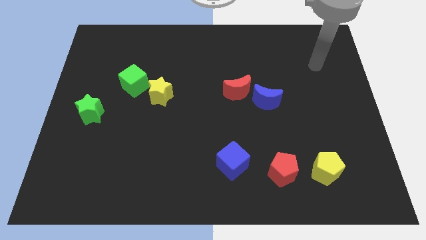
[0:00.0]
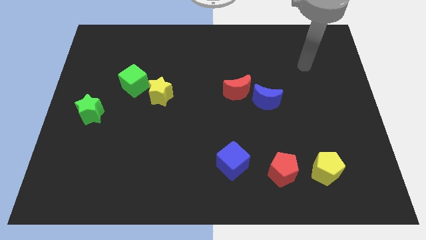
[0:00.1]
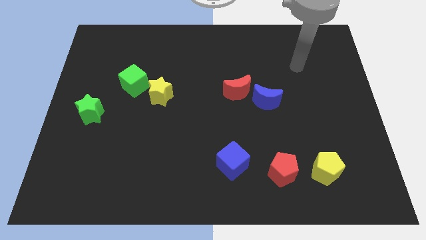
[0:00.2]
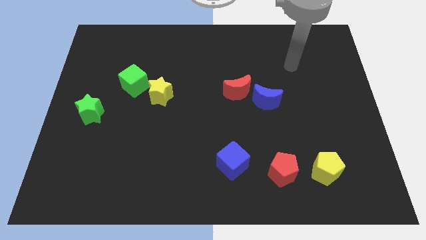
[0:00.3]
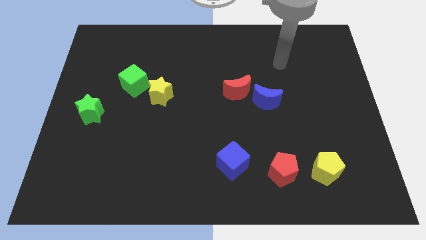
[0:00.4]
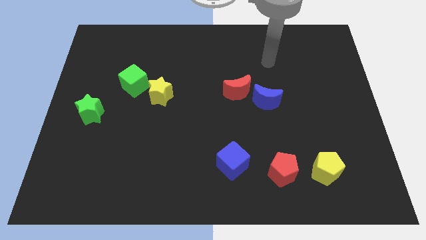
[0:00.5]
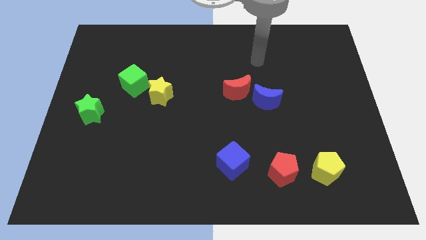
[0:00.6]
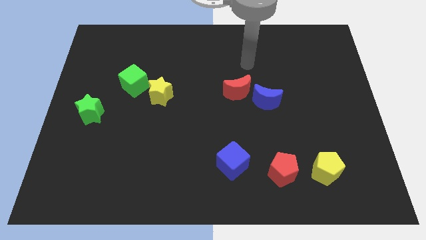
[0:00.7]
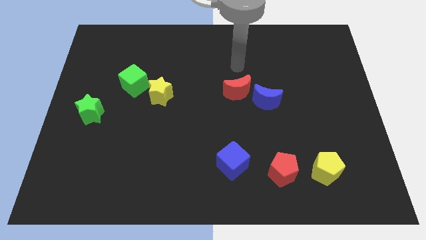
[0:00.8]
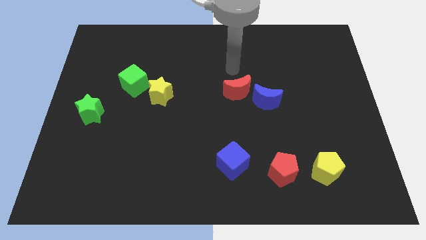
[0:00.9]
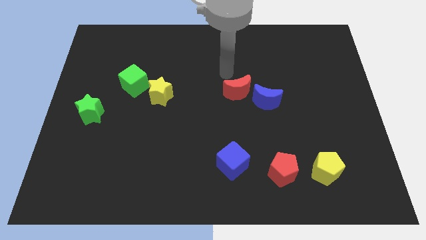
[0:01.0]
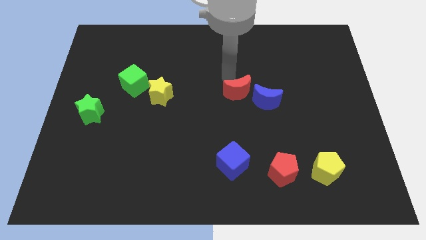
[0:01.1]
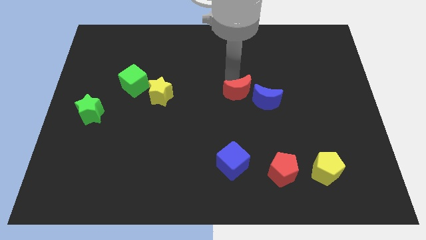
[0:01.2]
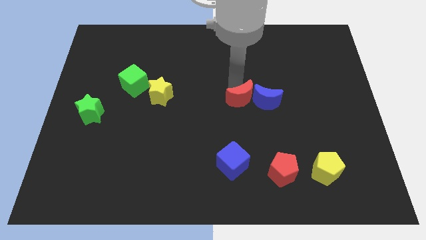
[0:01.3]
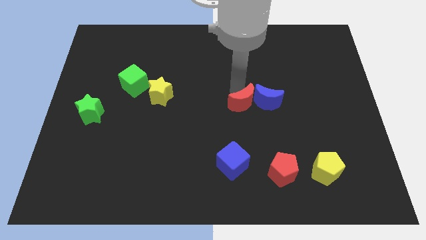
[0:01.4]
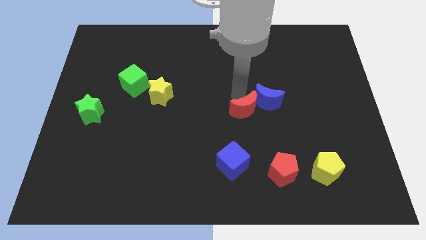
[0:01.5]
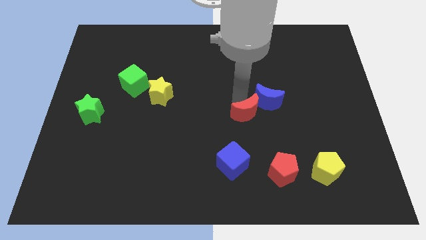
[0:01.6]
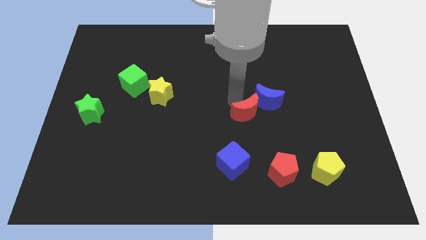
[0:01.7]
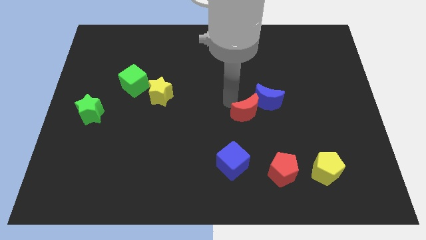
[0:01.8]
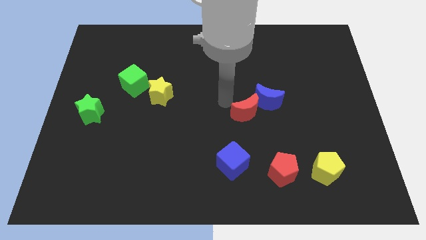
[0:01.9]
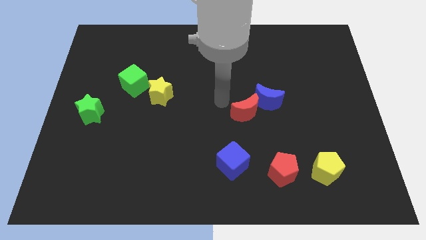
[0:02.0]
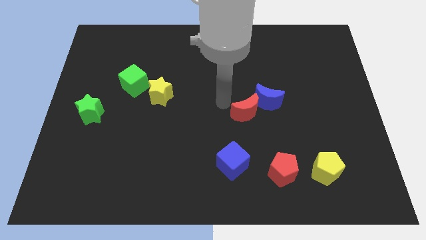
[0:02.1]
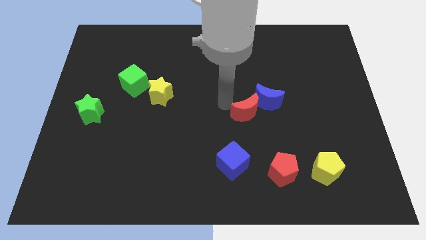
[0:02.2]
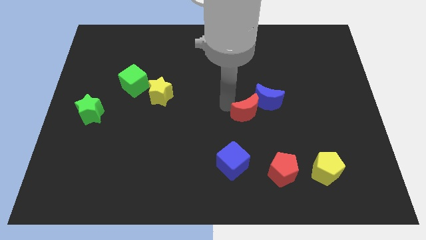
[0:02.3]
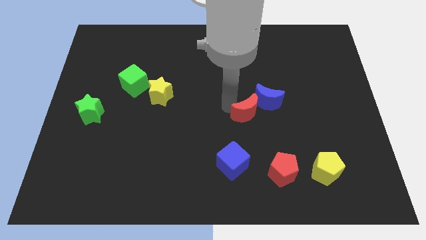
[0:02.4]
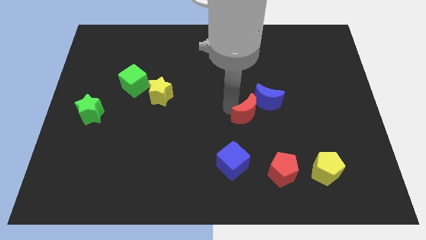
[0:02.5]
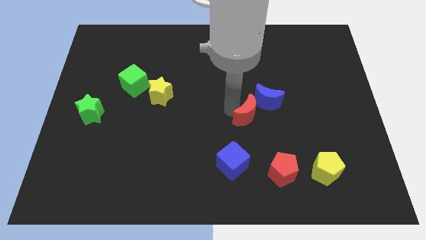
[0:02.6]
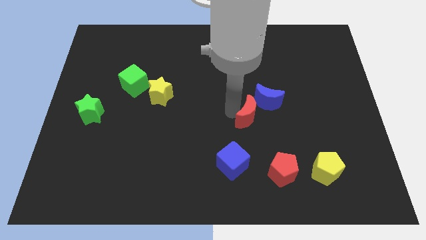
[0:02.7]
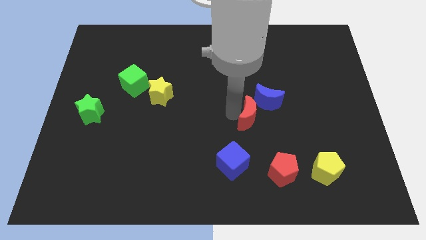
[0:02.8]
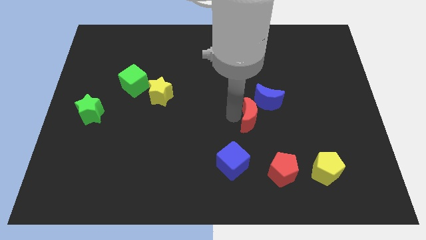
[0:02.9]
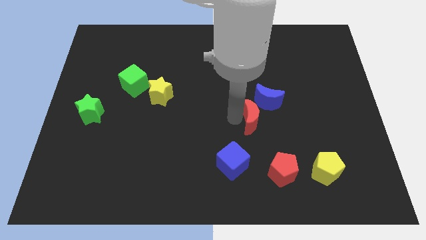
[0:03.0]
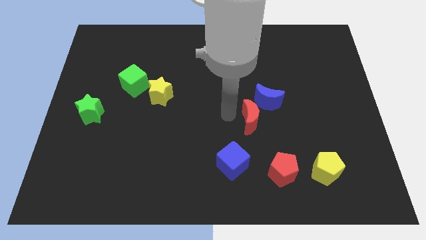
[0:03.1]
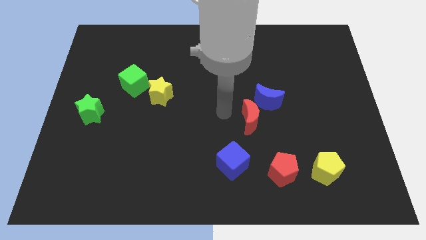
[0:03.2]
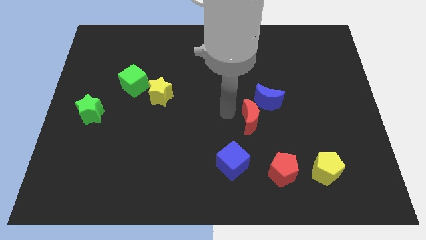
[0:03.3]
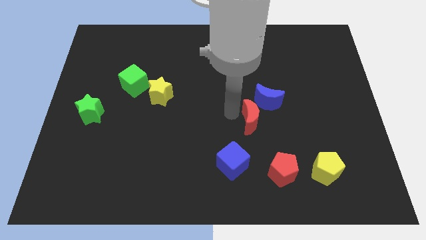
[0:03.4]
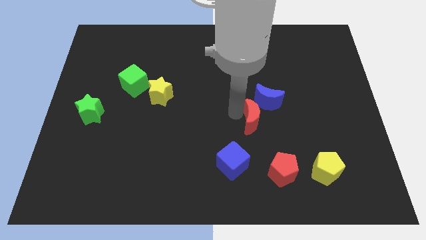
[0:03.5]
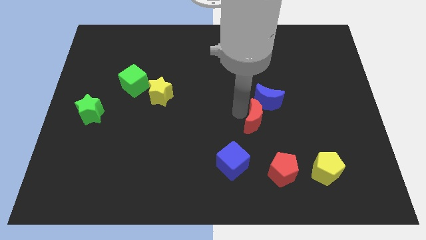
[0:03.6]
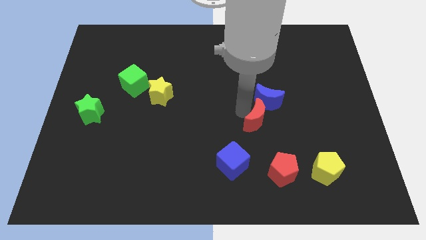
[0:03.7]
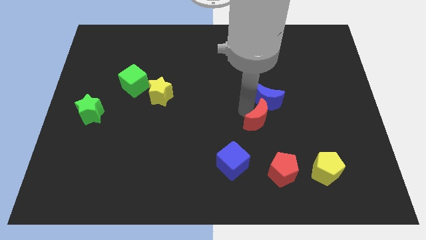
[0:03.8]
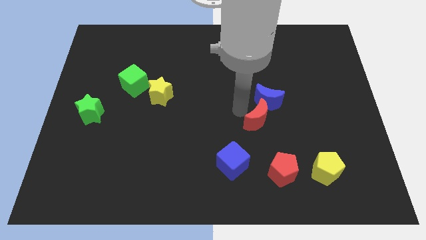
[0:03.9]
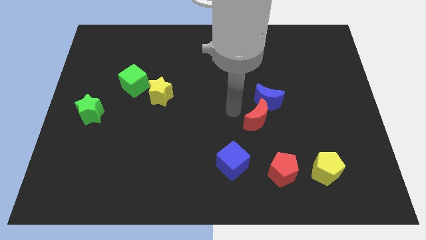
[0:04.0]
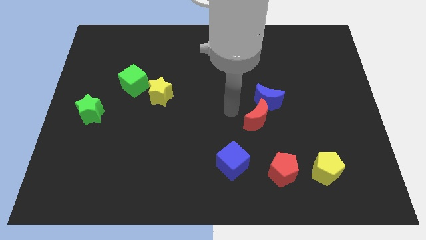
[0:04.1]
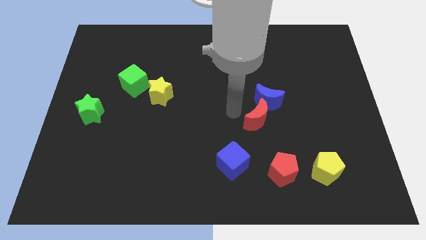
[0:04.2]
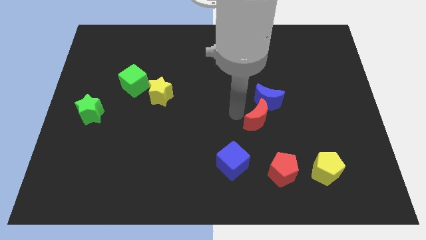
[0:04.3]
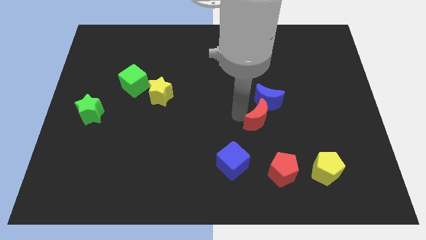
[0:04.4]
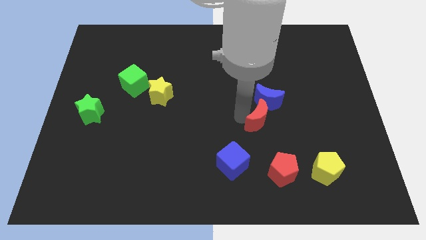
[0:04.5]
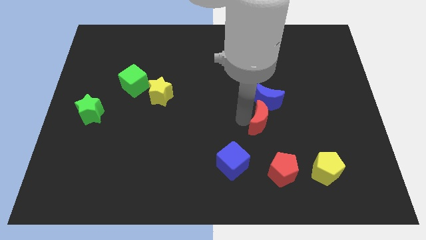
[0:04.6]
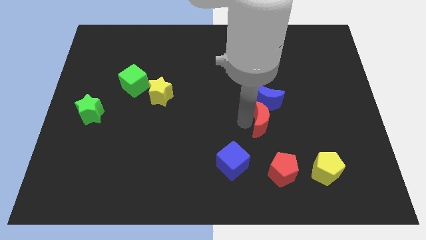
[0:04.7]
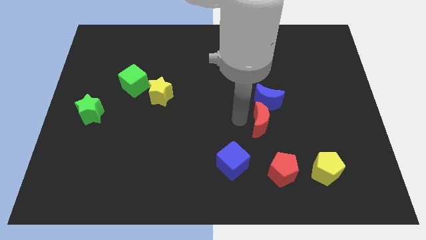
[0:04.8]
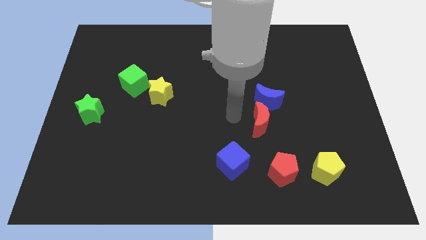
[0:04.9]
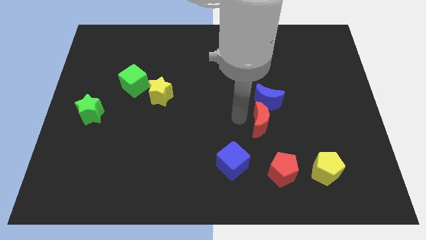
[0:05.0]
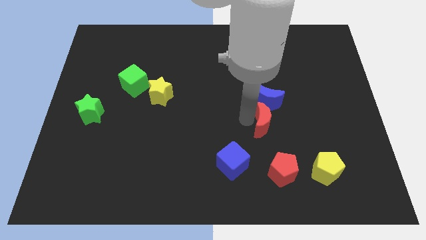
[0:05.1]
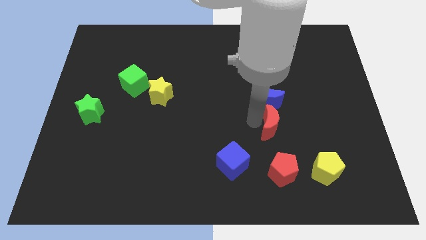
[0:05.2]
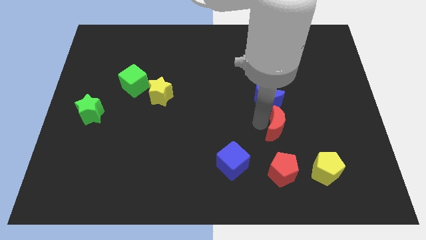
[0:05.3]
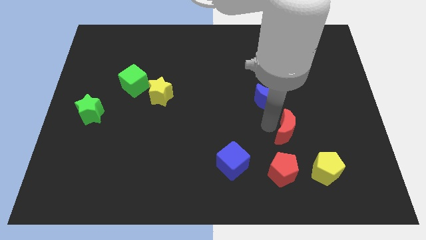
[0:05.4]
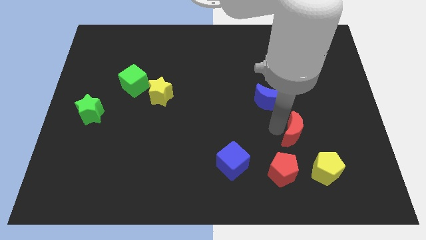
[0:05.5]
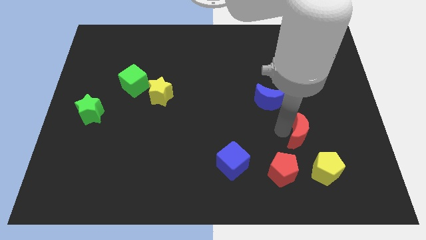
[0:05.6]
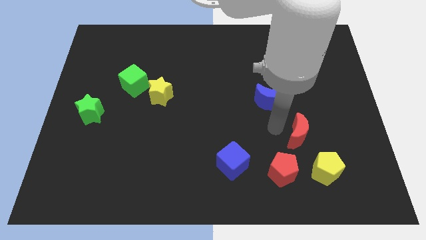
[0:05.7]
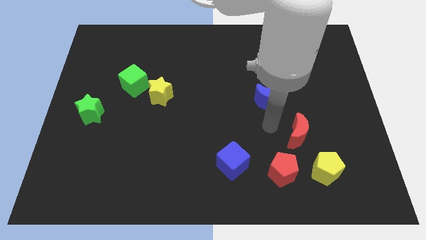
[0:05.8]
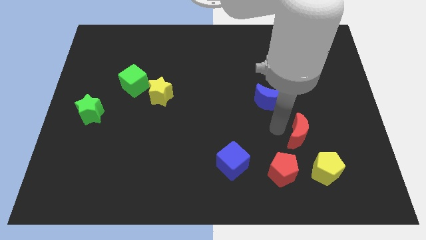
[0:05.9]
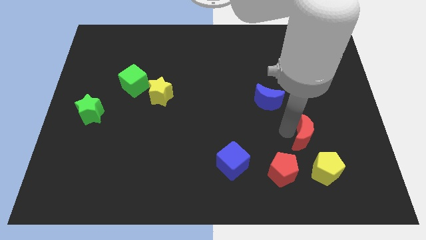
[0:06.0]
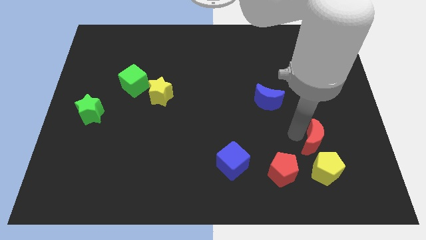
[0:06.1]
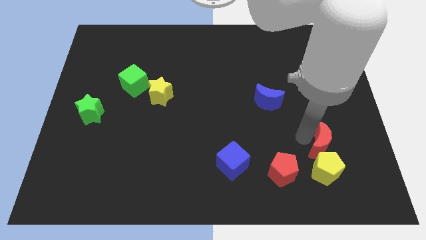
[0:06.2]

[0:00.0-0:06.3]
move the red moon to the top right of the yellow pentagon
